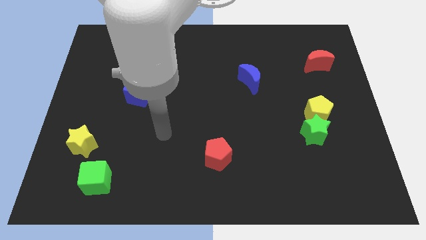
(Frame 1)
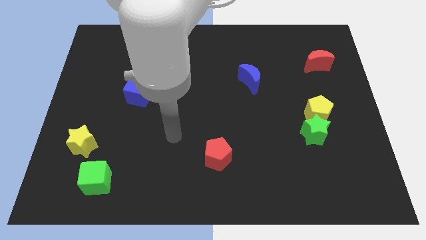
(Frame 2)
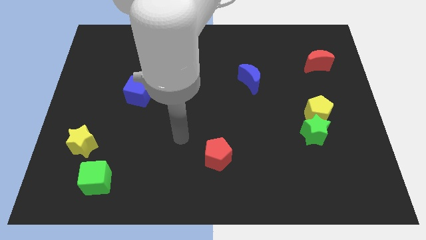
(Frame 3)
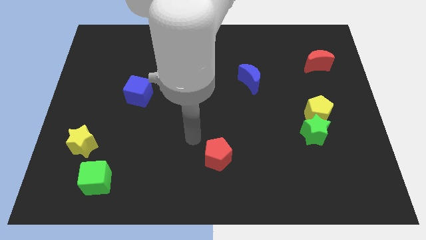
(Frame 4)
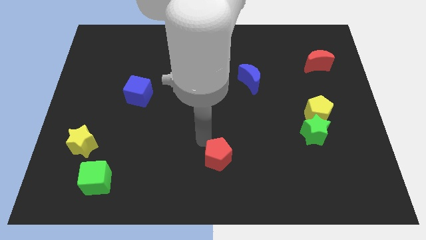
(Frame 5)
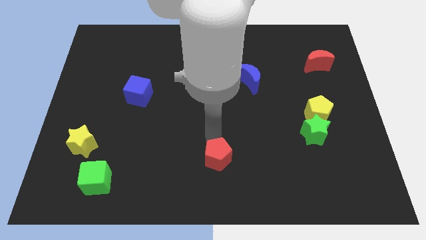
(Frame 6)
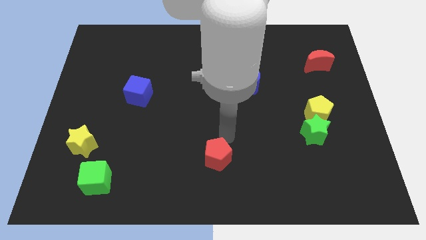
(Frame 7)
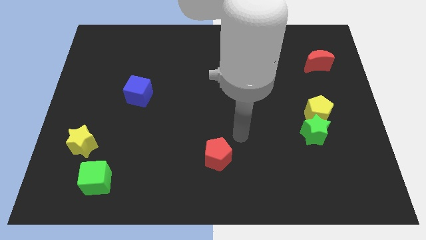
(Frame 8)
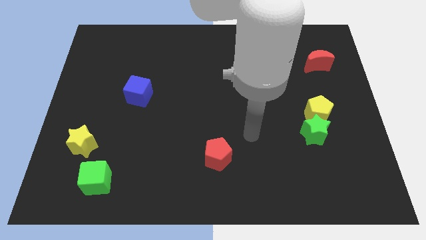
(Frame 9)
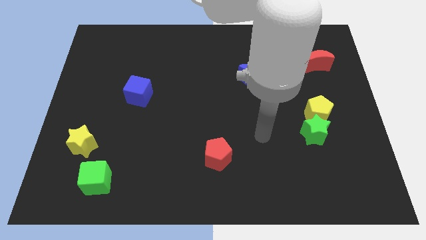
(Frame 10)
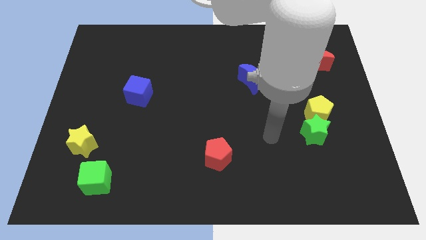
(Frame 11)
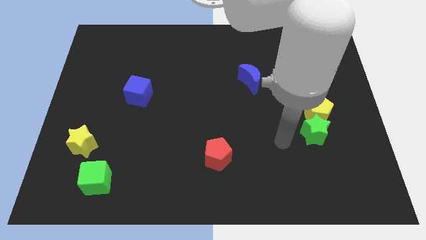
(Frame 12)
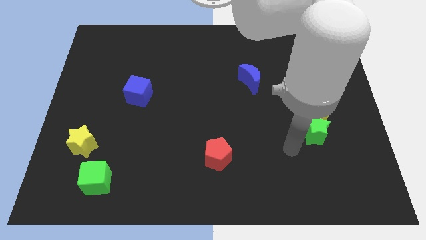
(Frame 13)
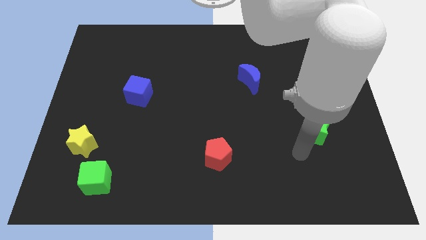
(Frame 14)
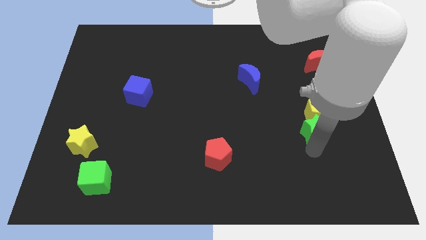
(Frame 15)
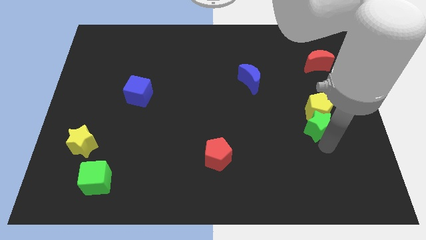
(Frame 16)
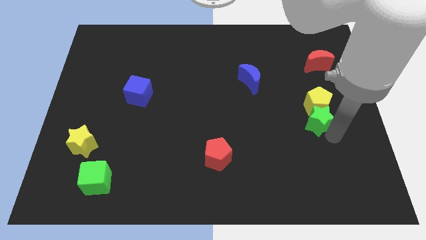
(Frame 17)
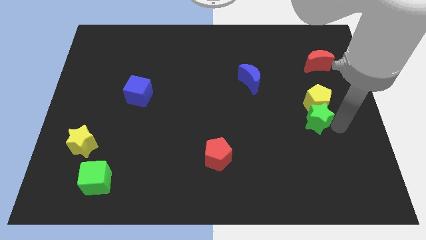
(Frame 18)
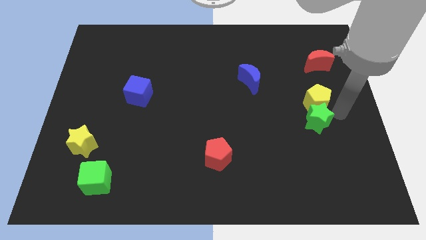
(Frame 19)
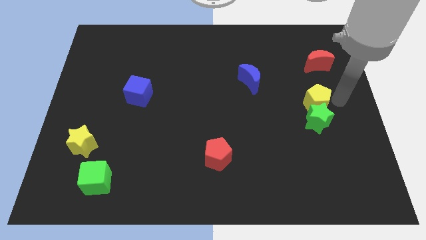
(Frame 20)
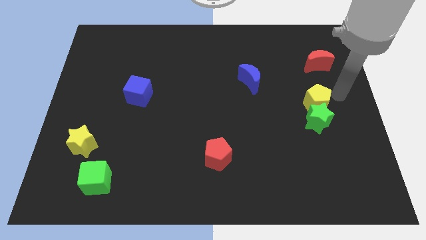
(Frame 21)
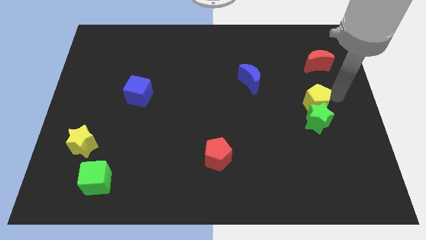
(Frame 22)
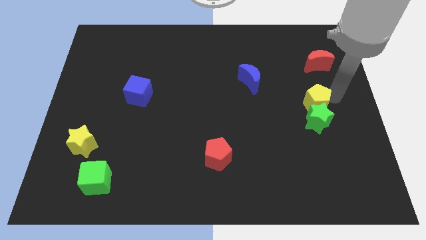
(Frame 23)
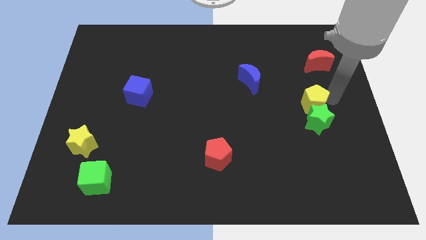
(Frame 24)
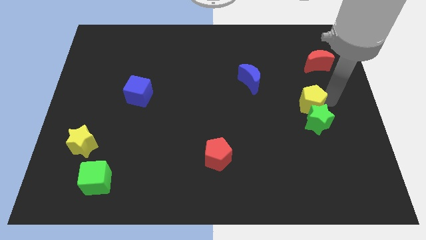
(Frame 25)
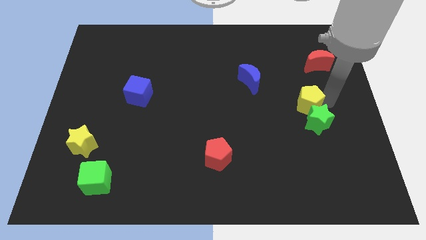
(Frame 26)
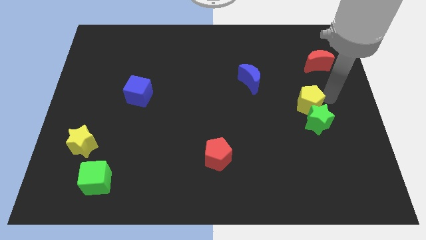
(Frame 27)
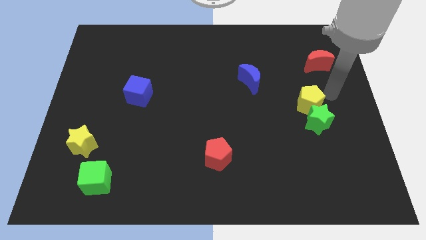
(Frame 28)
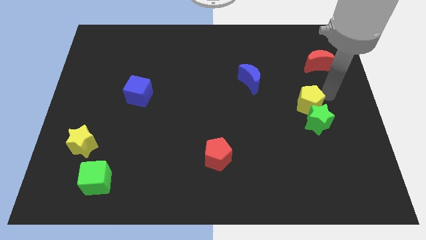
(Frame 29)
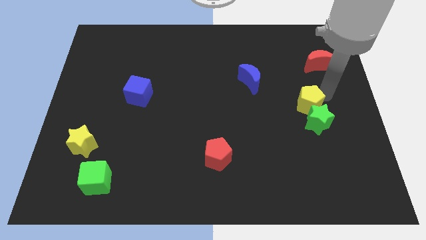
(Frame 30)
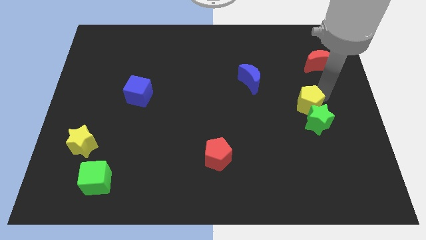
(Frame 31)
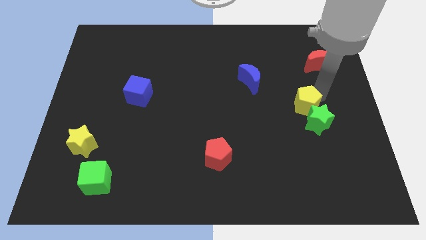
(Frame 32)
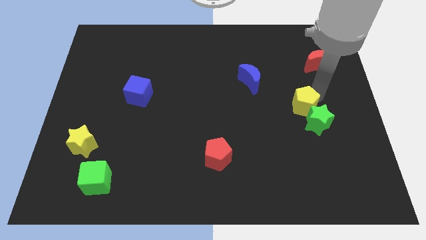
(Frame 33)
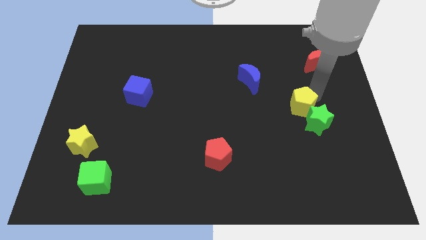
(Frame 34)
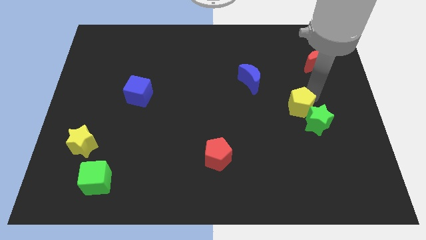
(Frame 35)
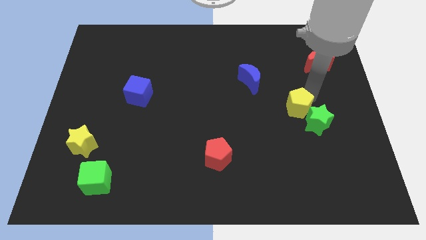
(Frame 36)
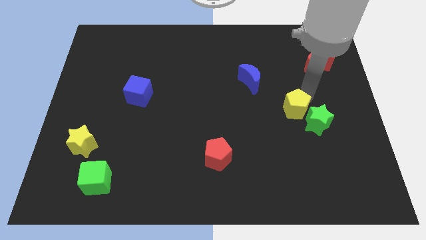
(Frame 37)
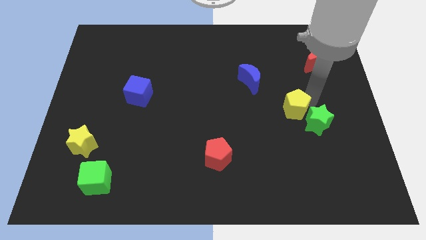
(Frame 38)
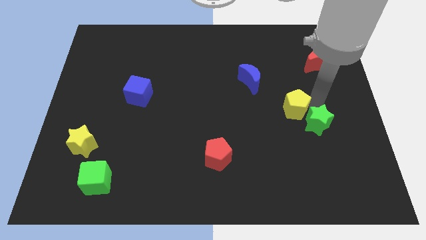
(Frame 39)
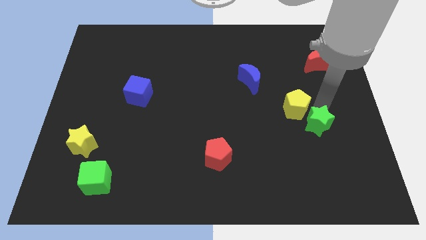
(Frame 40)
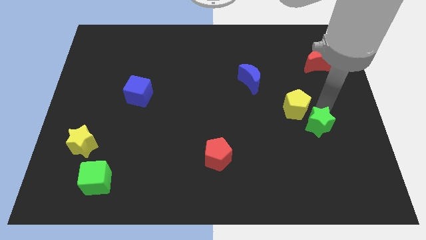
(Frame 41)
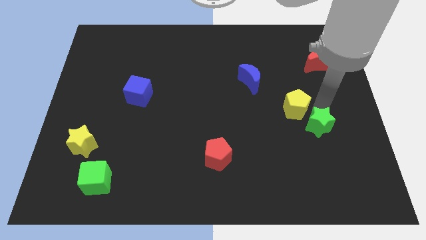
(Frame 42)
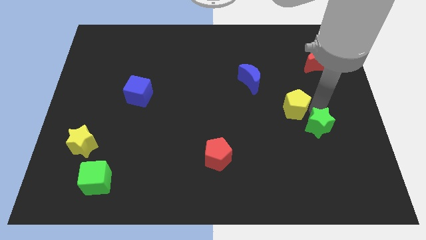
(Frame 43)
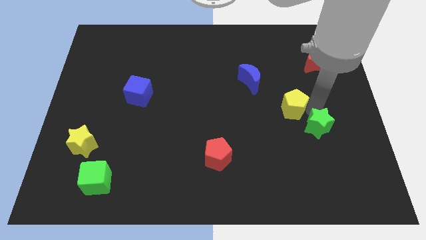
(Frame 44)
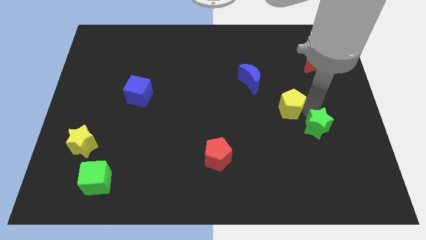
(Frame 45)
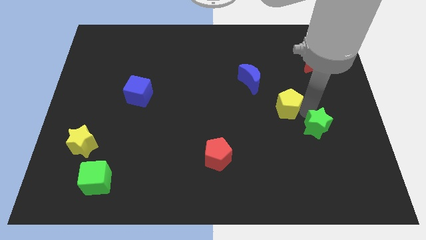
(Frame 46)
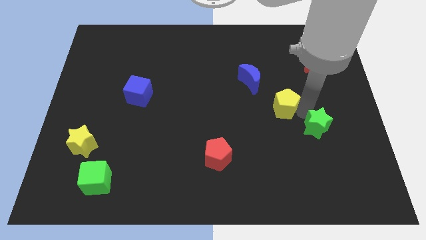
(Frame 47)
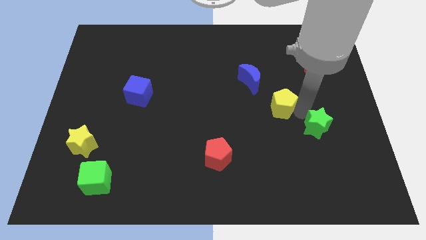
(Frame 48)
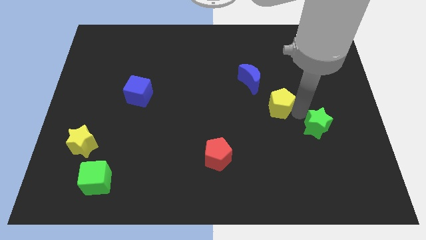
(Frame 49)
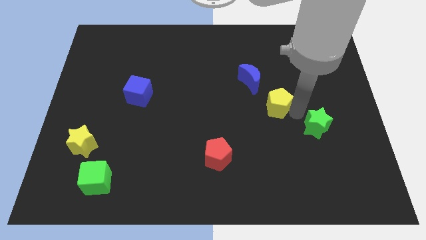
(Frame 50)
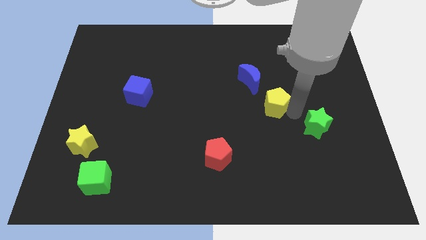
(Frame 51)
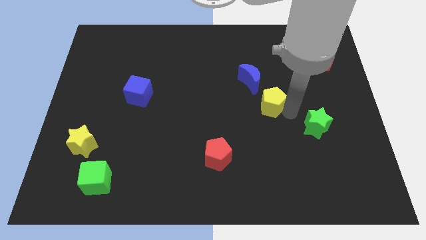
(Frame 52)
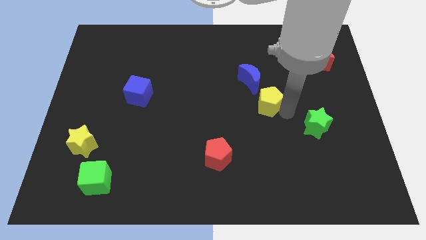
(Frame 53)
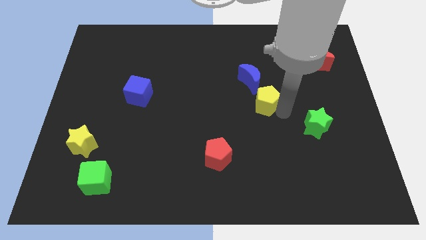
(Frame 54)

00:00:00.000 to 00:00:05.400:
push the yellow pentagon to the center of the board

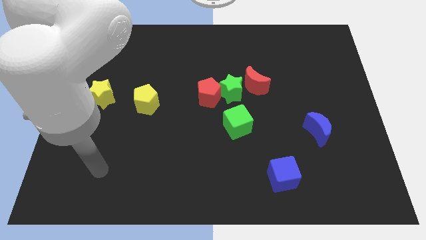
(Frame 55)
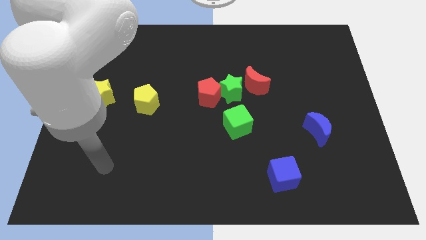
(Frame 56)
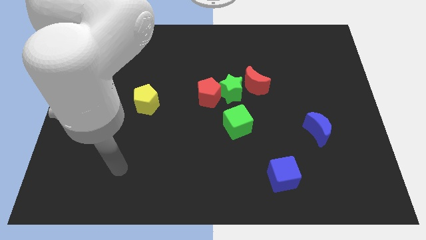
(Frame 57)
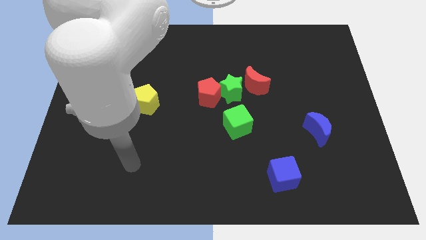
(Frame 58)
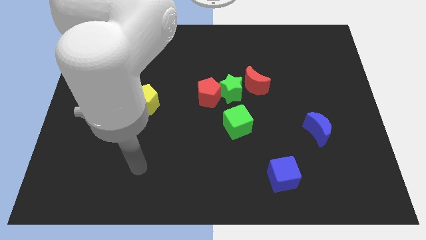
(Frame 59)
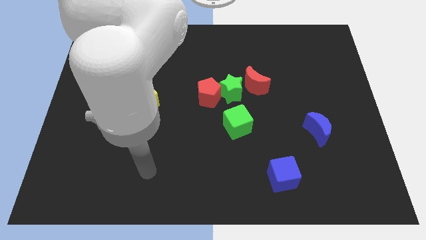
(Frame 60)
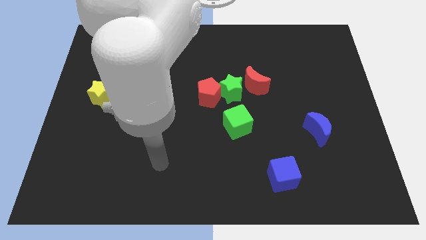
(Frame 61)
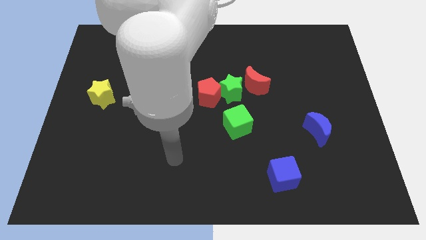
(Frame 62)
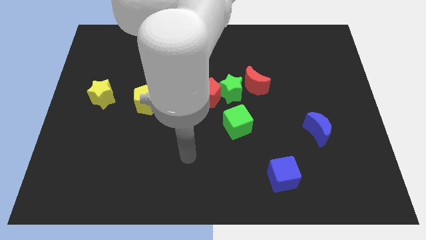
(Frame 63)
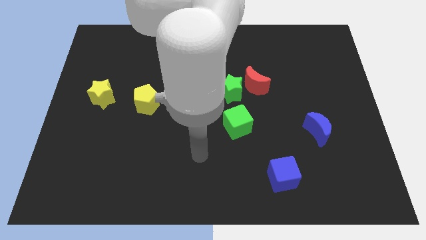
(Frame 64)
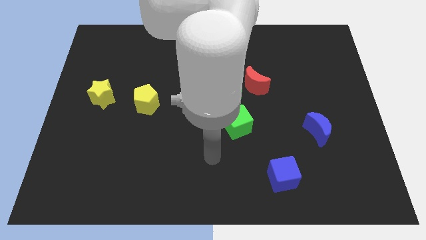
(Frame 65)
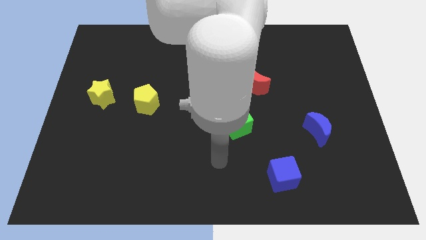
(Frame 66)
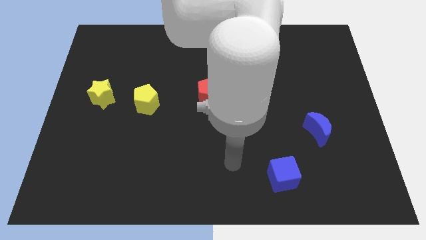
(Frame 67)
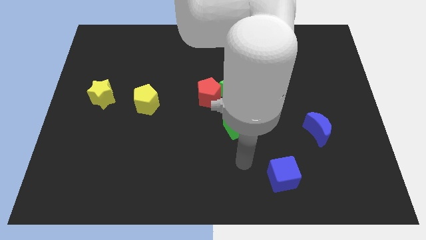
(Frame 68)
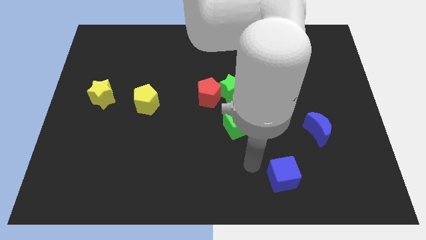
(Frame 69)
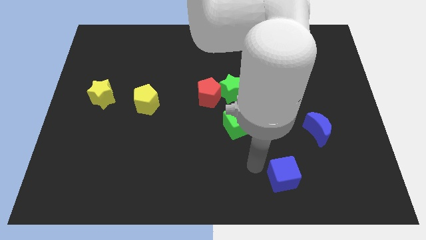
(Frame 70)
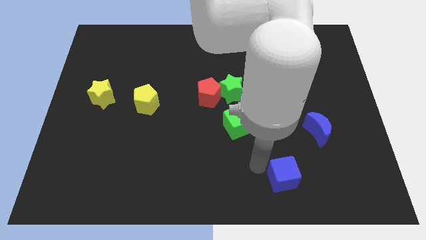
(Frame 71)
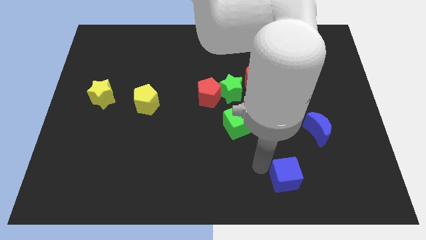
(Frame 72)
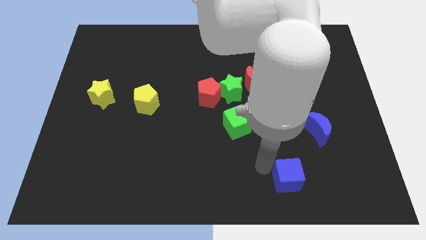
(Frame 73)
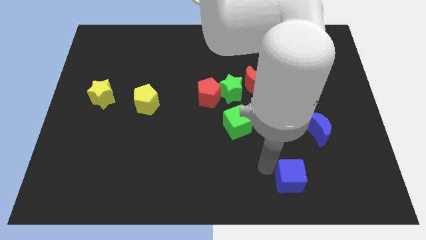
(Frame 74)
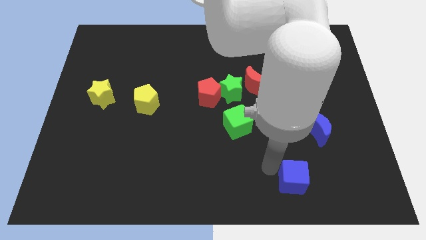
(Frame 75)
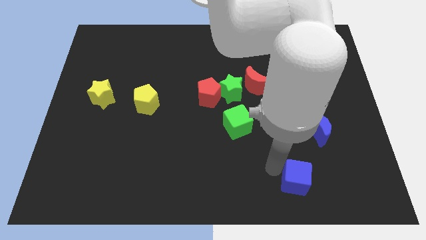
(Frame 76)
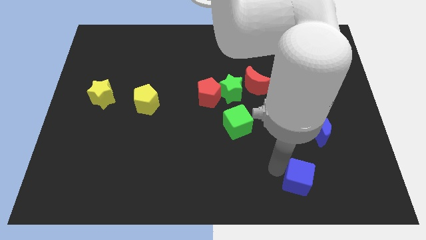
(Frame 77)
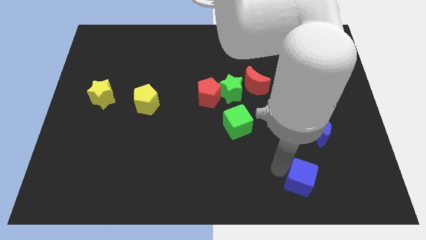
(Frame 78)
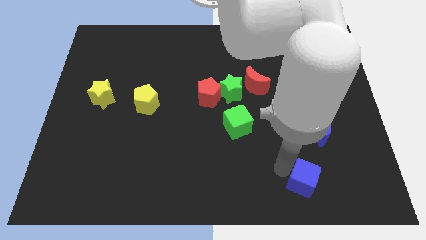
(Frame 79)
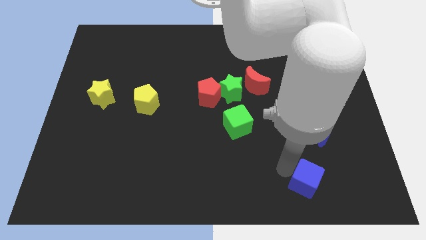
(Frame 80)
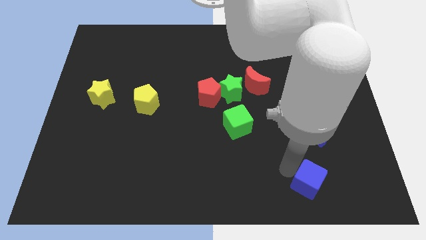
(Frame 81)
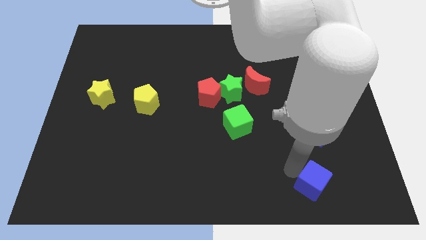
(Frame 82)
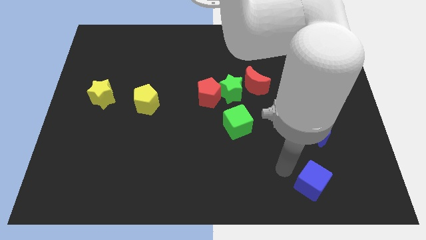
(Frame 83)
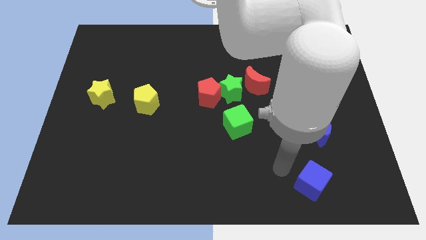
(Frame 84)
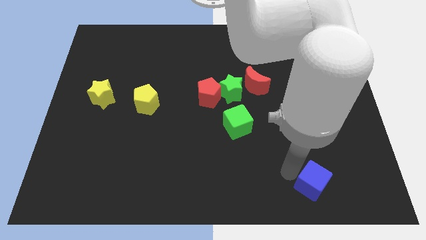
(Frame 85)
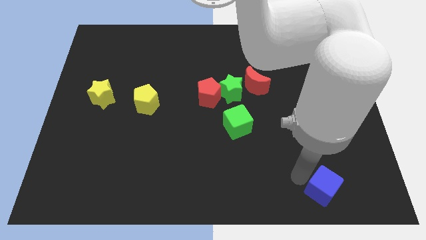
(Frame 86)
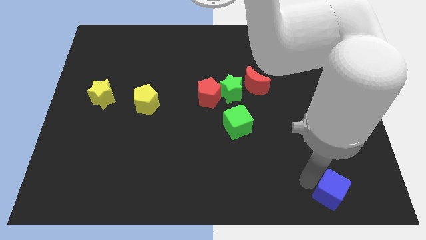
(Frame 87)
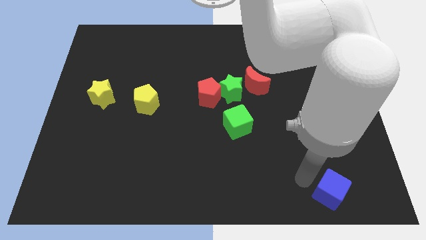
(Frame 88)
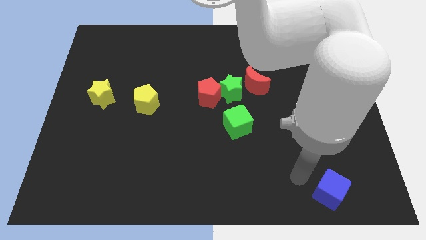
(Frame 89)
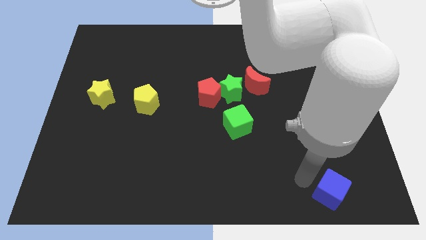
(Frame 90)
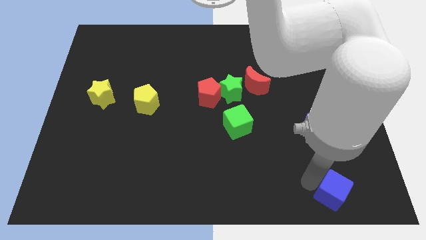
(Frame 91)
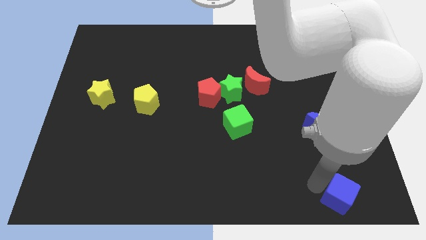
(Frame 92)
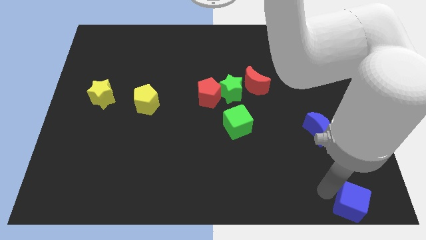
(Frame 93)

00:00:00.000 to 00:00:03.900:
slide the blue cube to the bottom right
